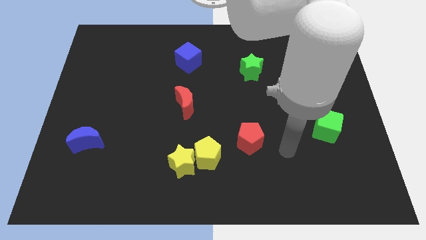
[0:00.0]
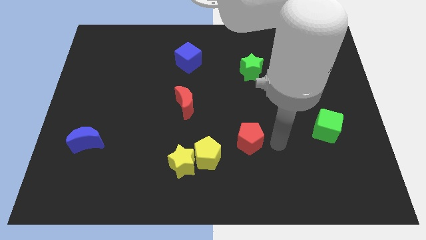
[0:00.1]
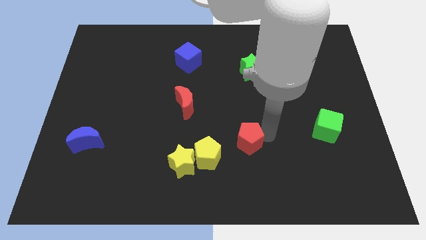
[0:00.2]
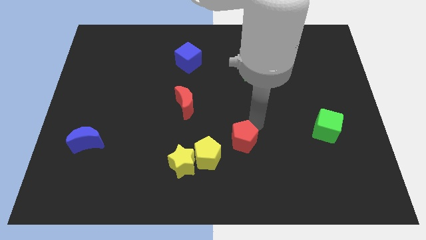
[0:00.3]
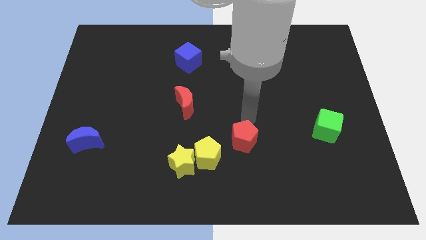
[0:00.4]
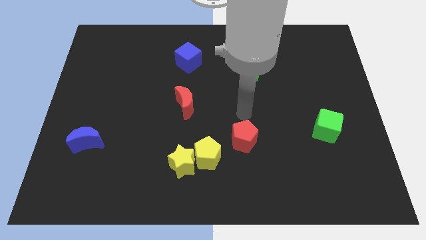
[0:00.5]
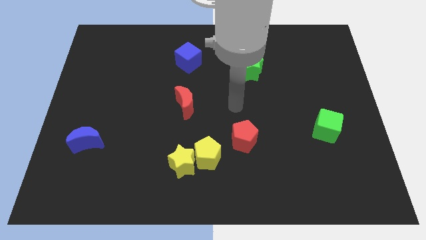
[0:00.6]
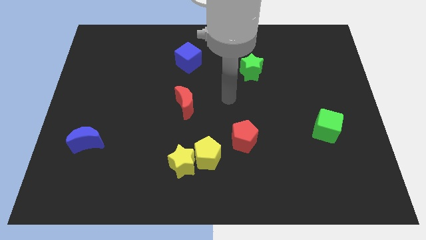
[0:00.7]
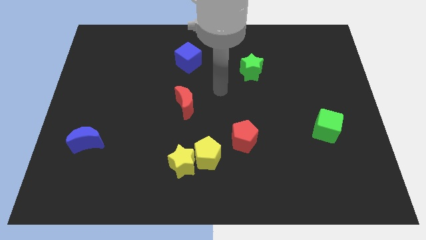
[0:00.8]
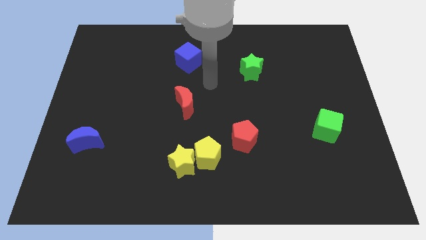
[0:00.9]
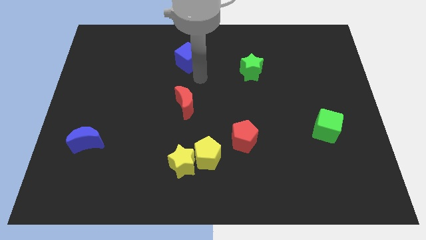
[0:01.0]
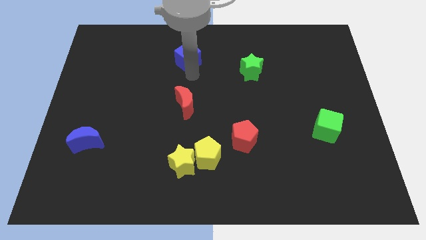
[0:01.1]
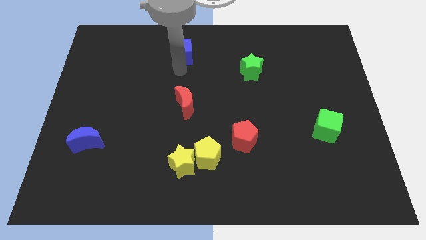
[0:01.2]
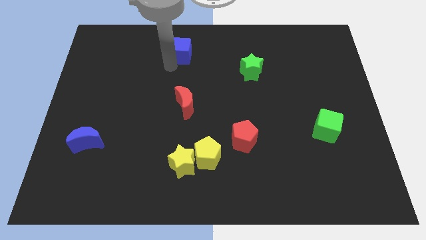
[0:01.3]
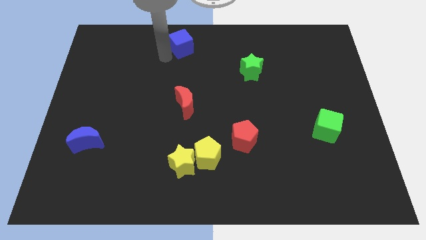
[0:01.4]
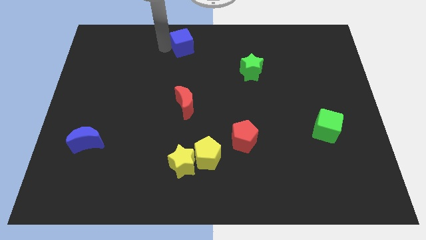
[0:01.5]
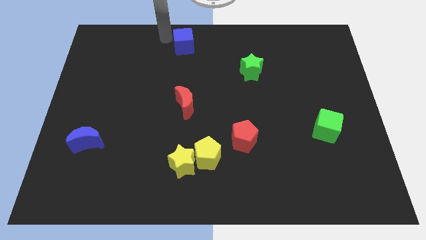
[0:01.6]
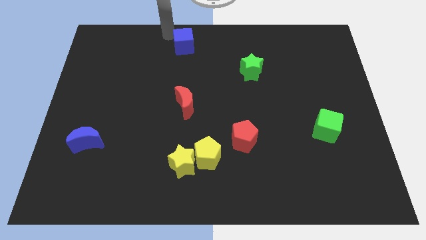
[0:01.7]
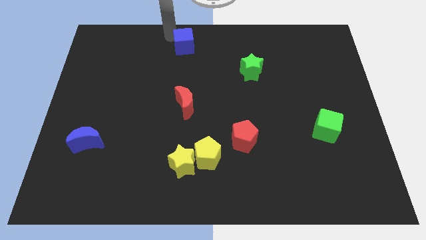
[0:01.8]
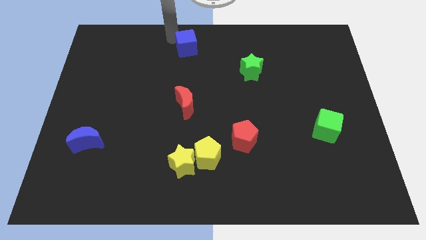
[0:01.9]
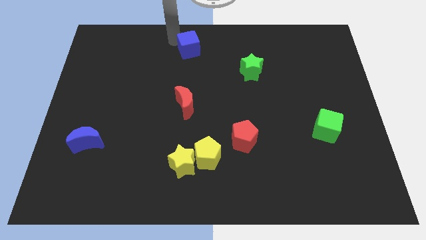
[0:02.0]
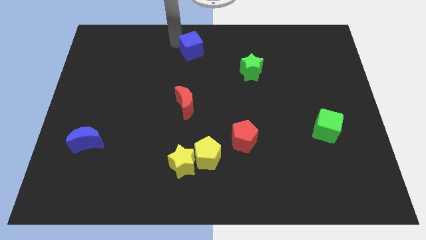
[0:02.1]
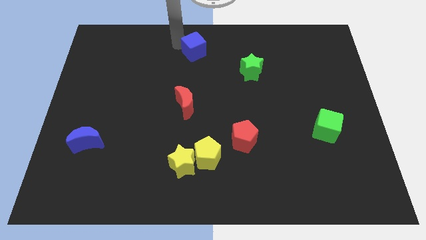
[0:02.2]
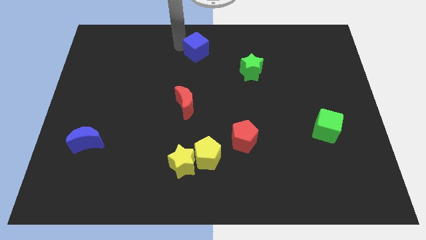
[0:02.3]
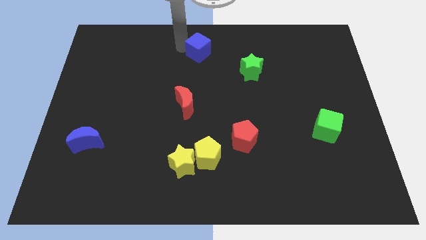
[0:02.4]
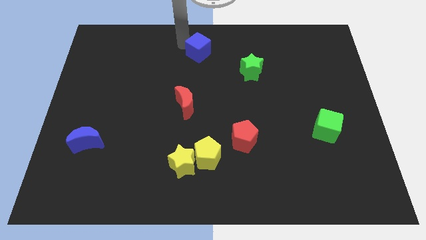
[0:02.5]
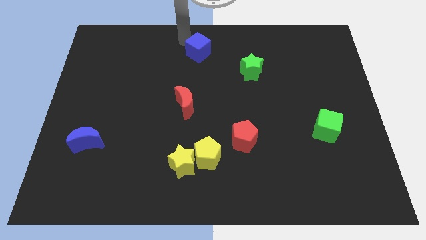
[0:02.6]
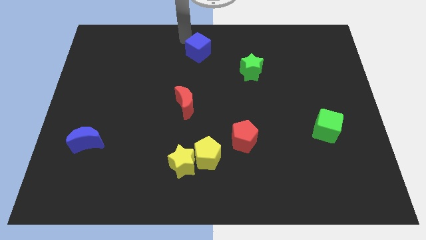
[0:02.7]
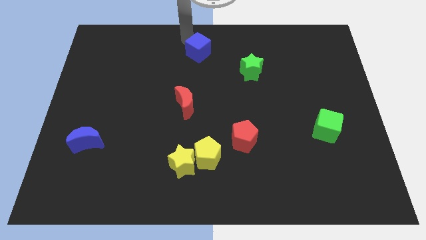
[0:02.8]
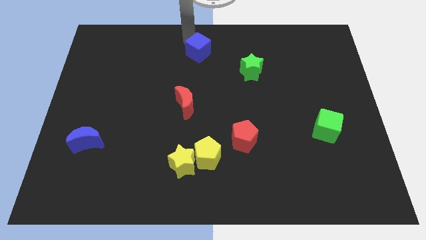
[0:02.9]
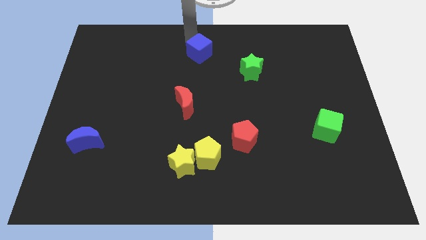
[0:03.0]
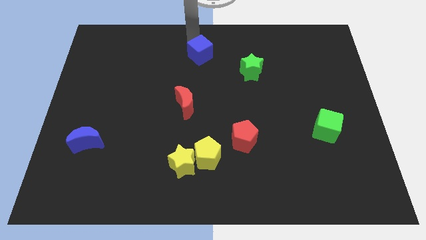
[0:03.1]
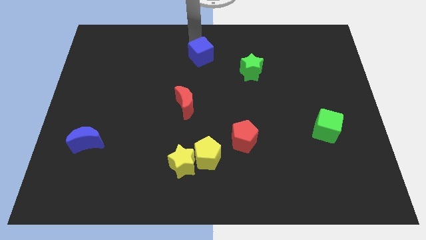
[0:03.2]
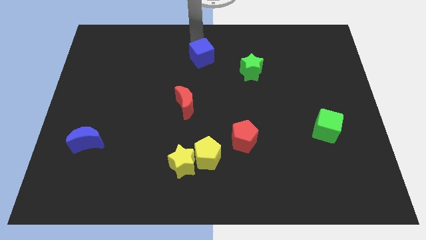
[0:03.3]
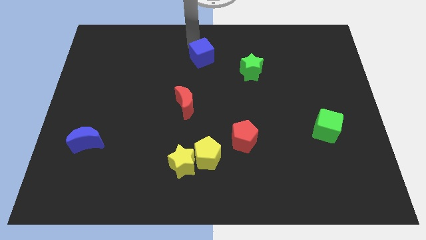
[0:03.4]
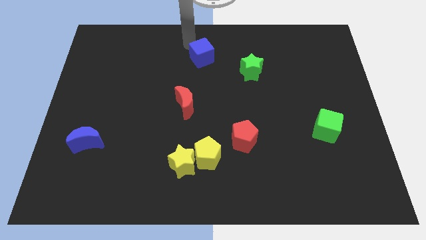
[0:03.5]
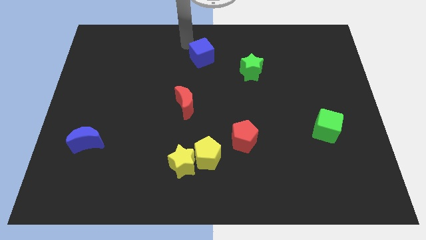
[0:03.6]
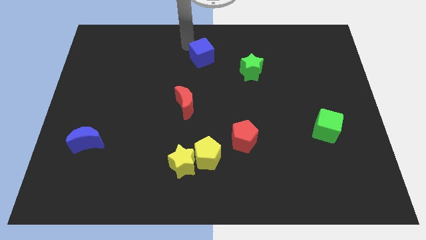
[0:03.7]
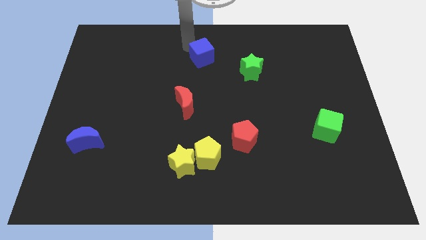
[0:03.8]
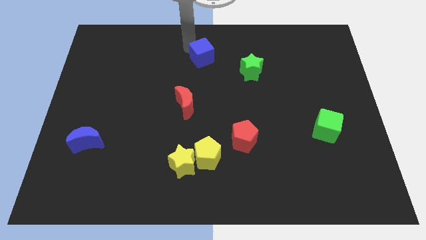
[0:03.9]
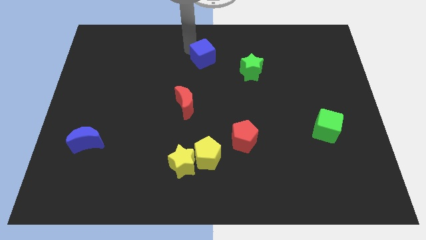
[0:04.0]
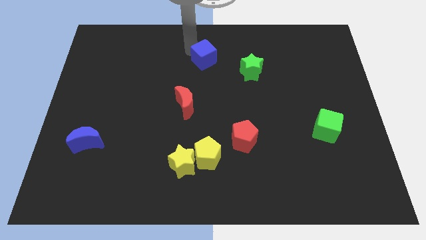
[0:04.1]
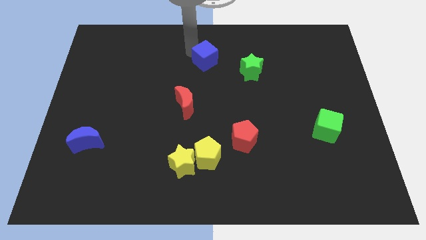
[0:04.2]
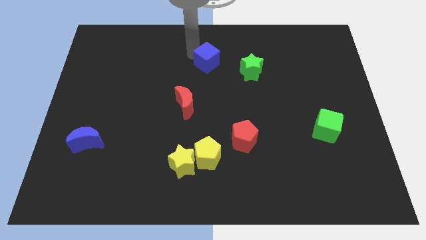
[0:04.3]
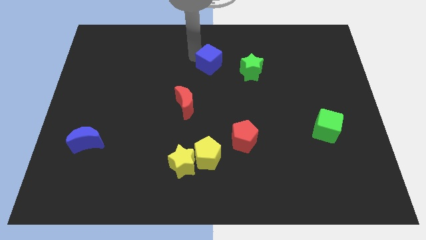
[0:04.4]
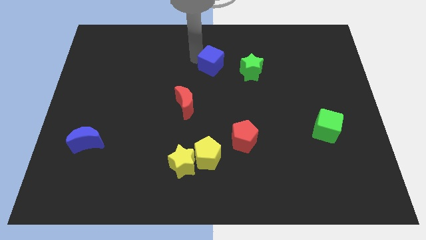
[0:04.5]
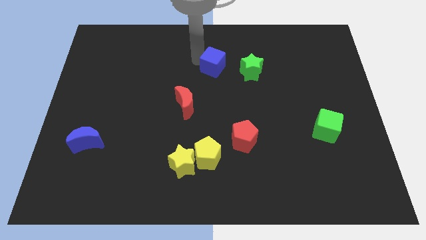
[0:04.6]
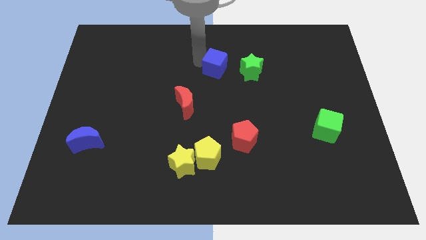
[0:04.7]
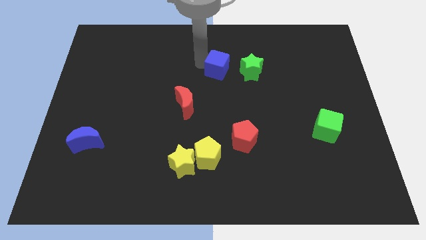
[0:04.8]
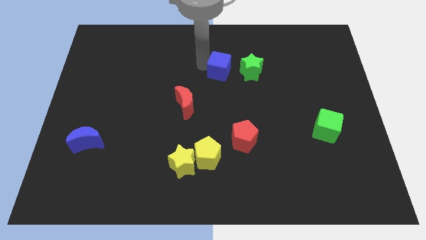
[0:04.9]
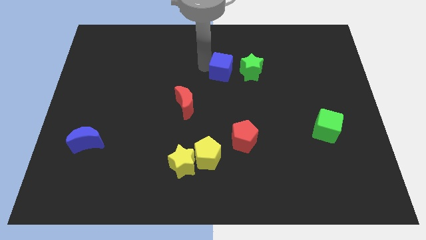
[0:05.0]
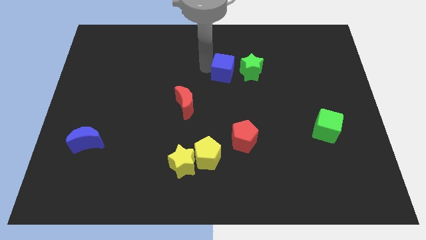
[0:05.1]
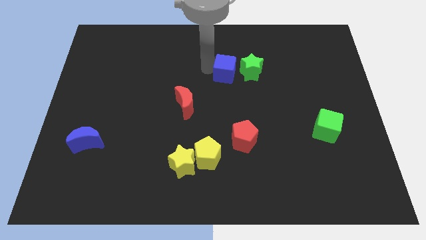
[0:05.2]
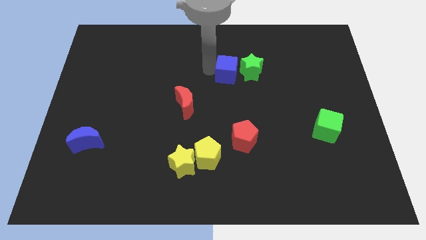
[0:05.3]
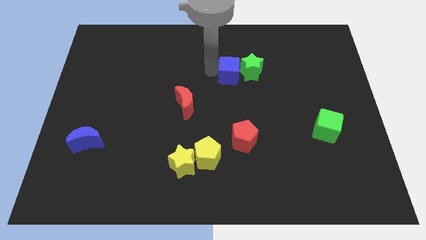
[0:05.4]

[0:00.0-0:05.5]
slide the blue cube close to the green star

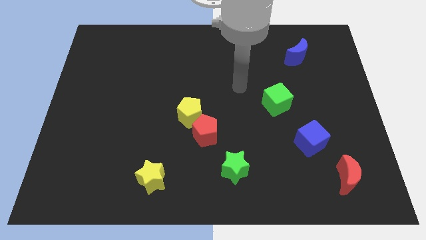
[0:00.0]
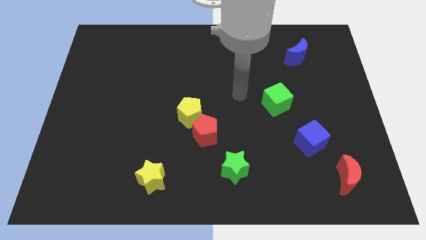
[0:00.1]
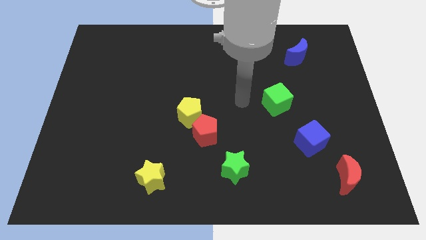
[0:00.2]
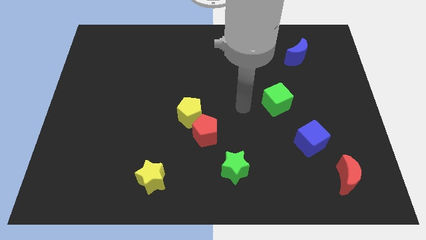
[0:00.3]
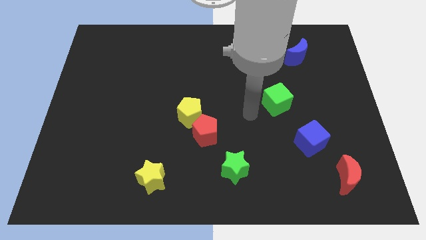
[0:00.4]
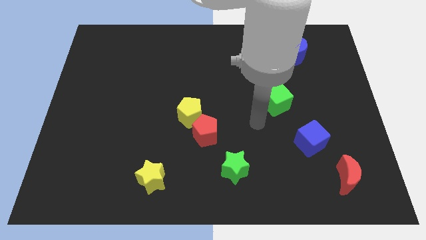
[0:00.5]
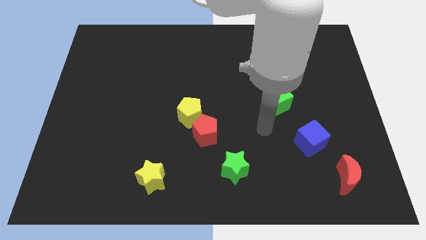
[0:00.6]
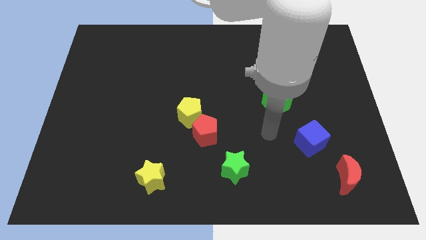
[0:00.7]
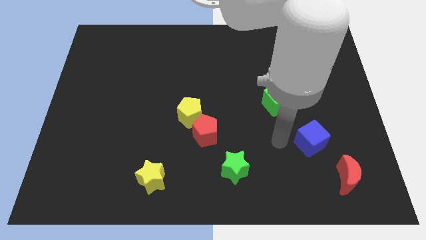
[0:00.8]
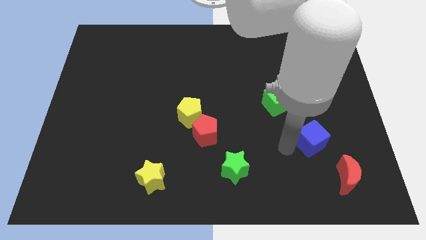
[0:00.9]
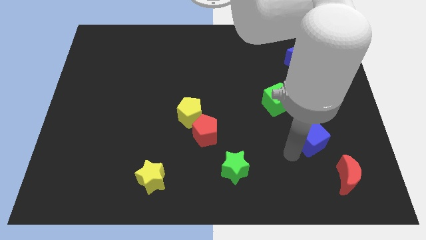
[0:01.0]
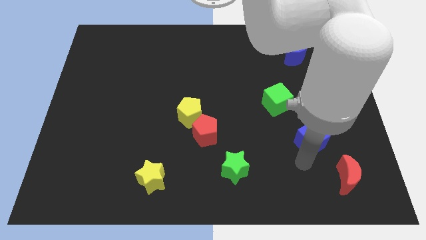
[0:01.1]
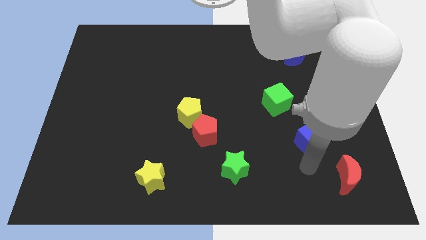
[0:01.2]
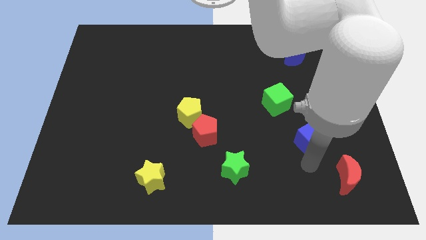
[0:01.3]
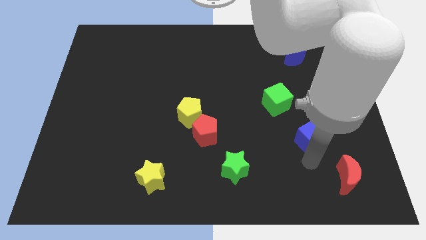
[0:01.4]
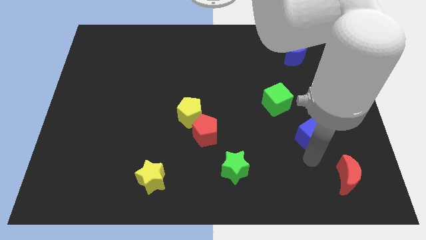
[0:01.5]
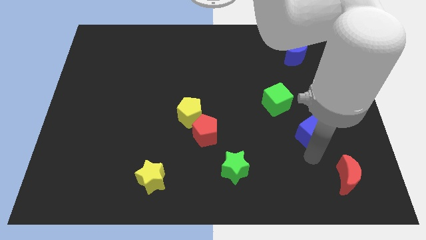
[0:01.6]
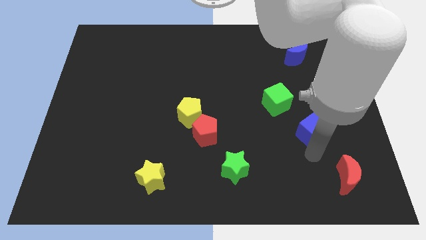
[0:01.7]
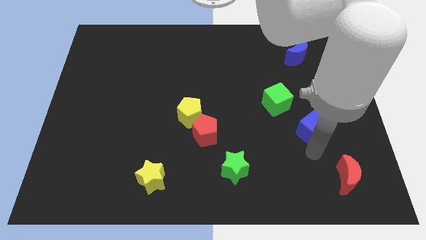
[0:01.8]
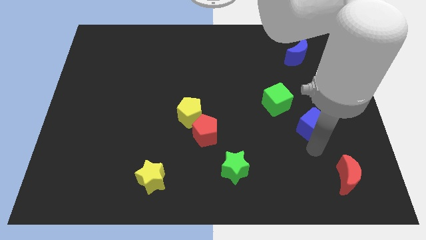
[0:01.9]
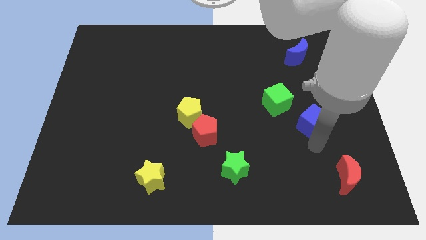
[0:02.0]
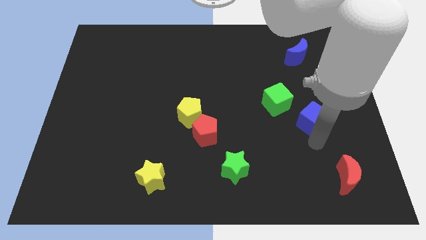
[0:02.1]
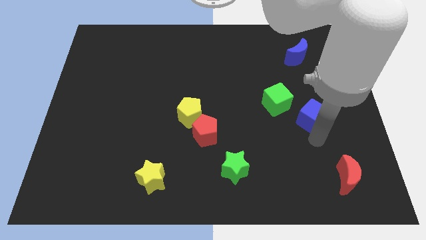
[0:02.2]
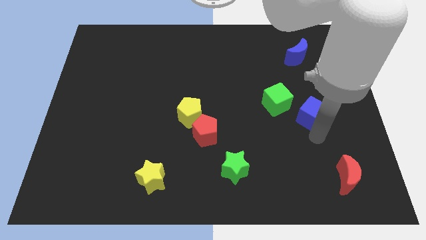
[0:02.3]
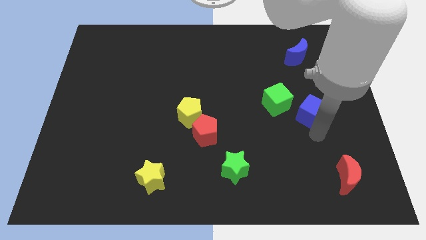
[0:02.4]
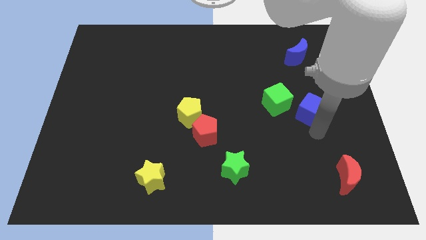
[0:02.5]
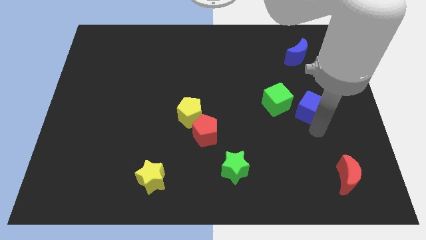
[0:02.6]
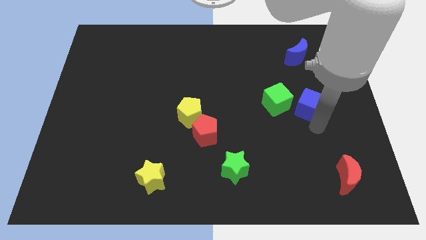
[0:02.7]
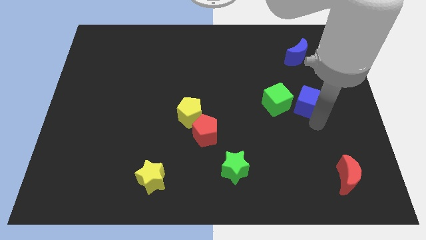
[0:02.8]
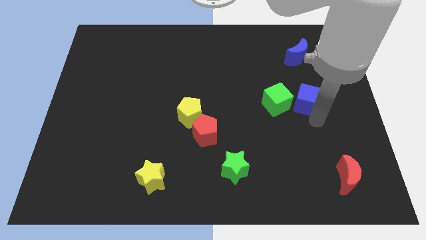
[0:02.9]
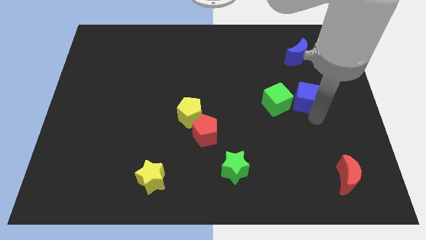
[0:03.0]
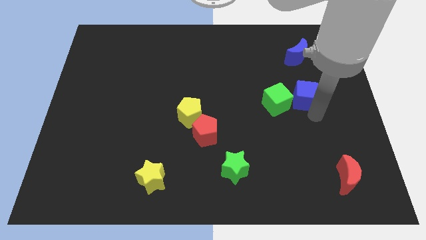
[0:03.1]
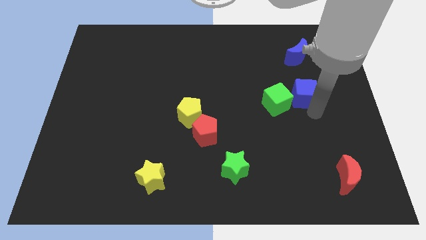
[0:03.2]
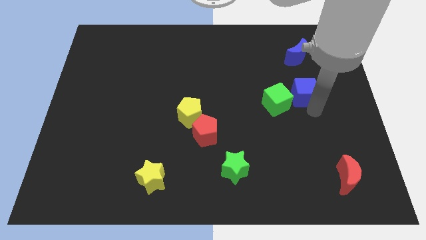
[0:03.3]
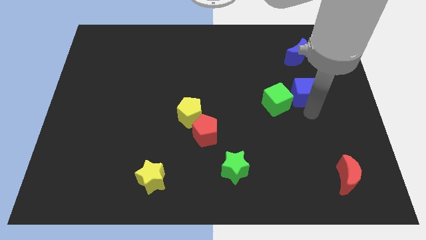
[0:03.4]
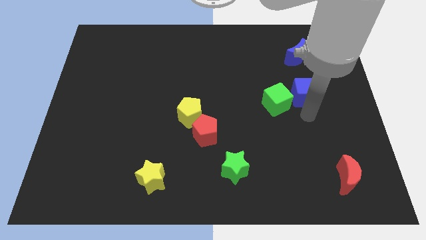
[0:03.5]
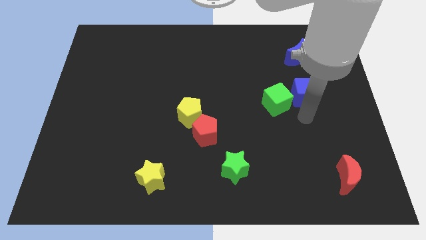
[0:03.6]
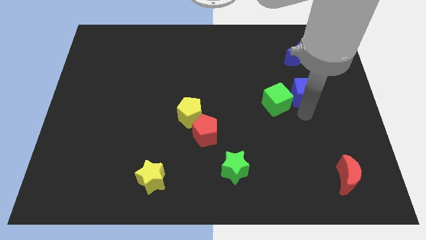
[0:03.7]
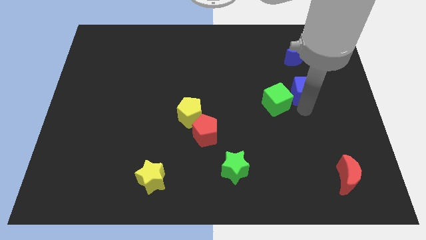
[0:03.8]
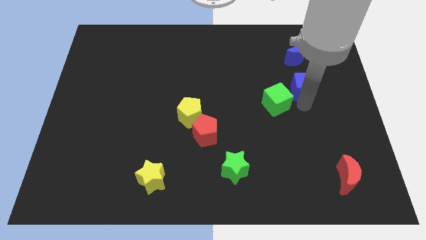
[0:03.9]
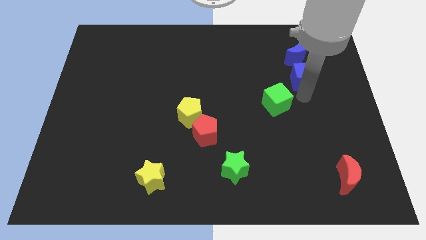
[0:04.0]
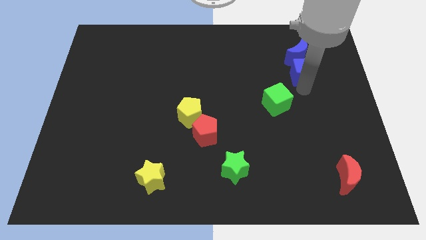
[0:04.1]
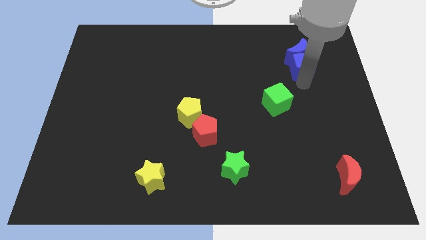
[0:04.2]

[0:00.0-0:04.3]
slide the blue cube next to the blue moon
